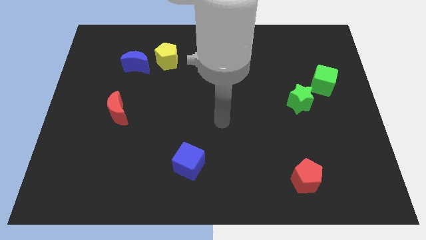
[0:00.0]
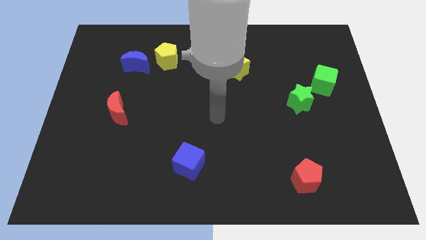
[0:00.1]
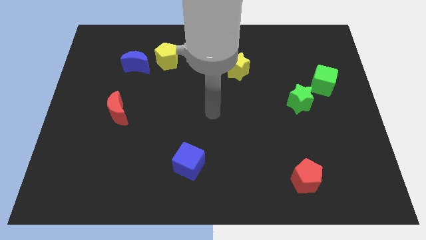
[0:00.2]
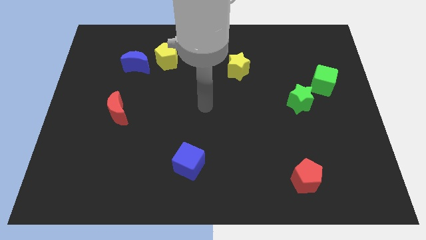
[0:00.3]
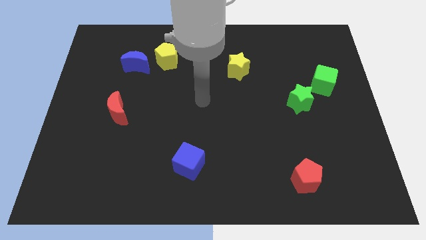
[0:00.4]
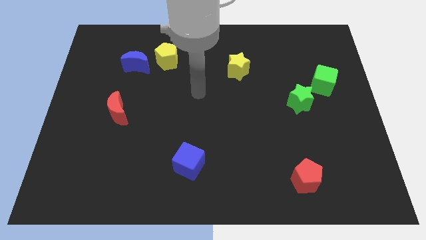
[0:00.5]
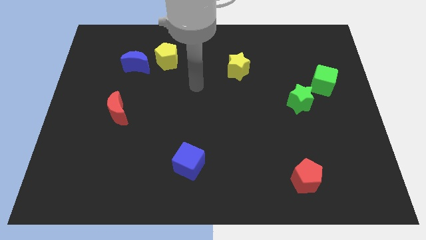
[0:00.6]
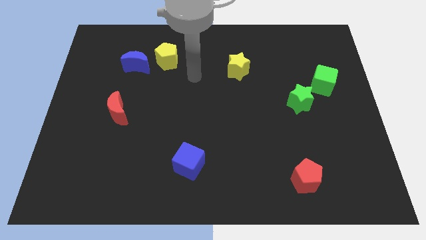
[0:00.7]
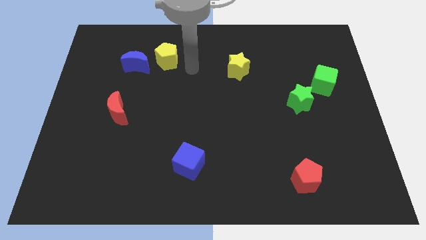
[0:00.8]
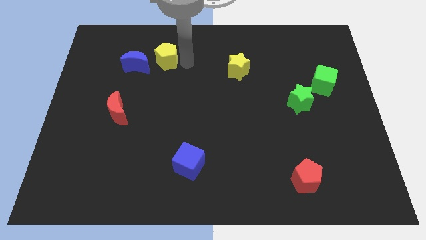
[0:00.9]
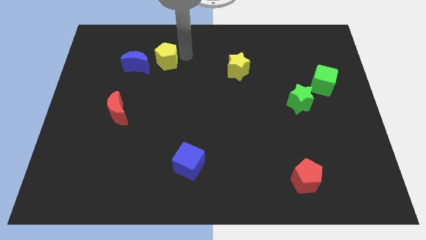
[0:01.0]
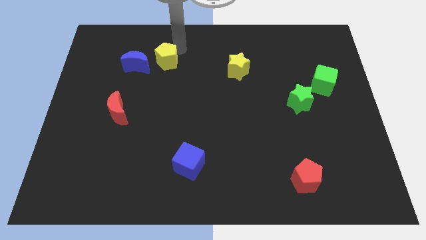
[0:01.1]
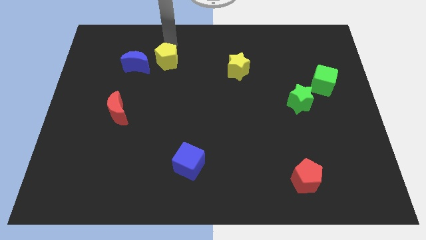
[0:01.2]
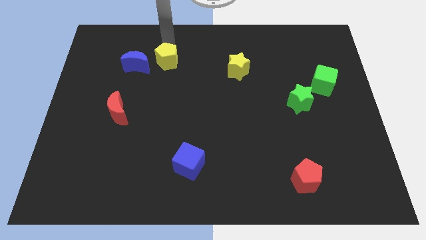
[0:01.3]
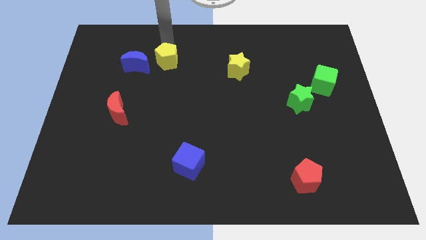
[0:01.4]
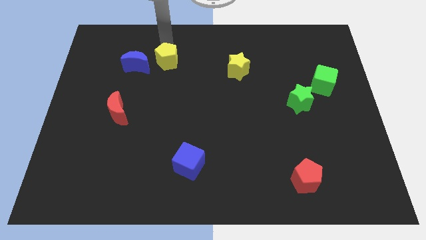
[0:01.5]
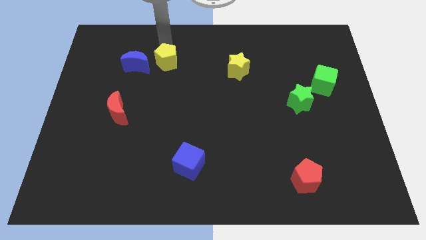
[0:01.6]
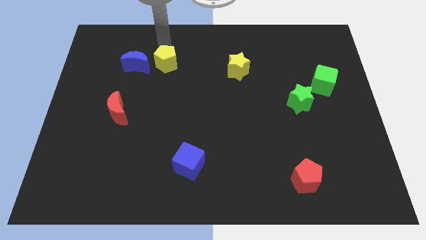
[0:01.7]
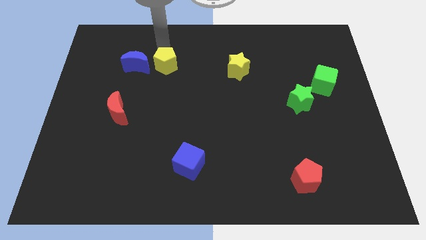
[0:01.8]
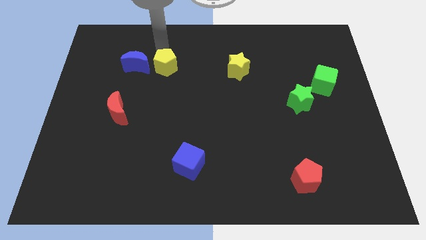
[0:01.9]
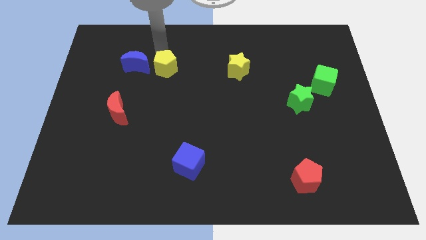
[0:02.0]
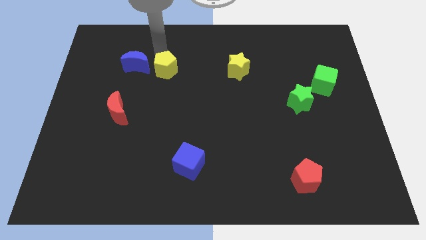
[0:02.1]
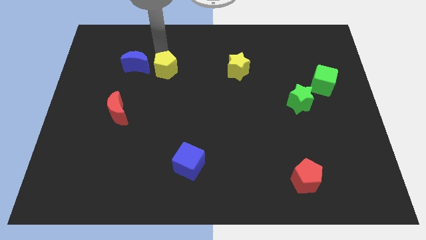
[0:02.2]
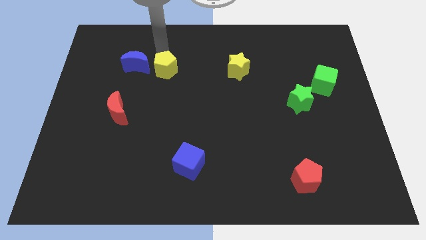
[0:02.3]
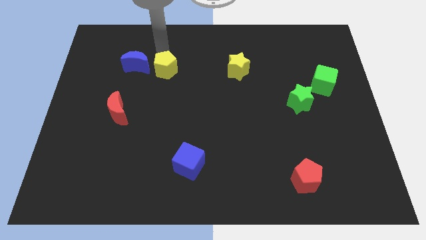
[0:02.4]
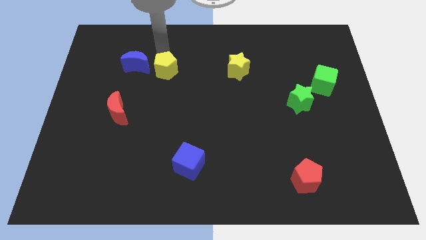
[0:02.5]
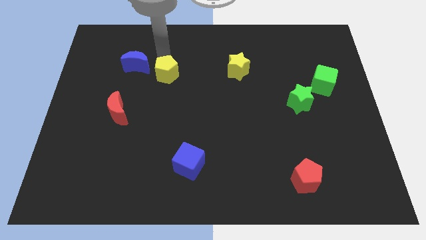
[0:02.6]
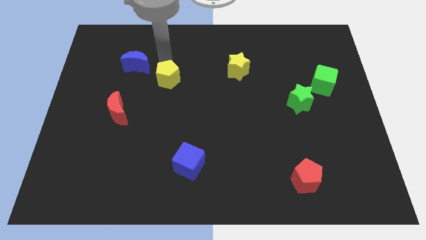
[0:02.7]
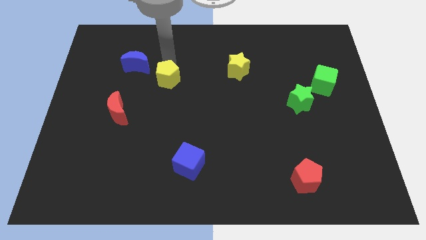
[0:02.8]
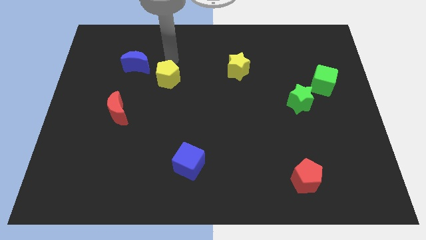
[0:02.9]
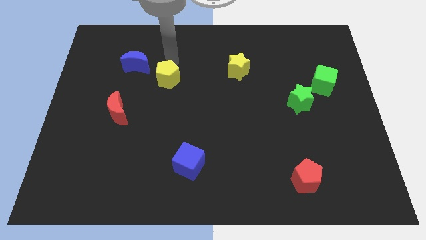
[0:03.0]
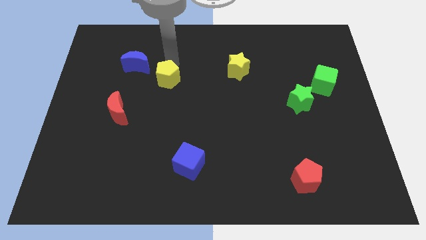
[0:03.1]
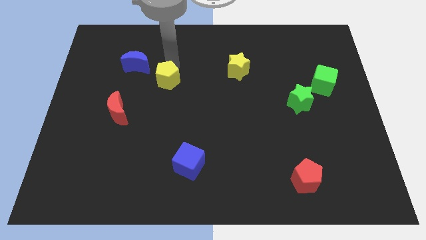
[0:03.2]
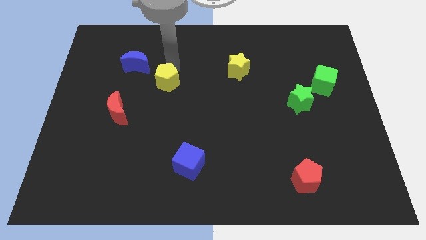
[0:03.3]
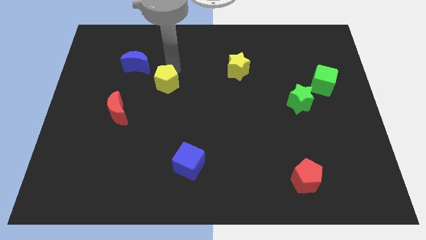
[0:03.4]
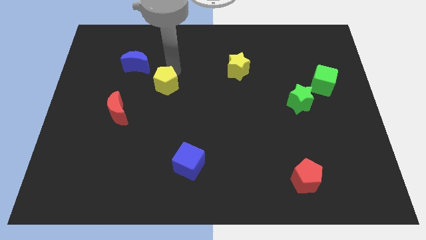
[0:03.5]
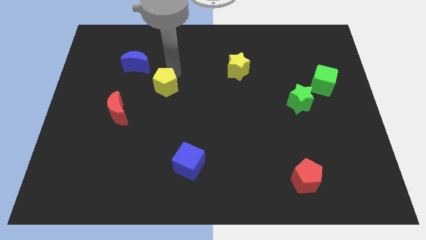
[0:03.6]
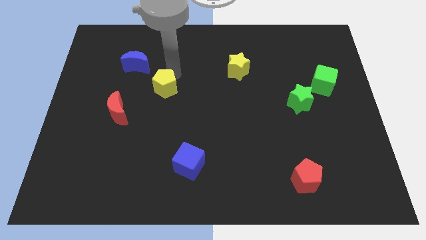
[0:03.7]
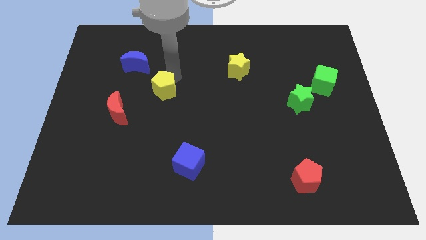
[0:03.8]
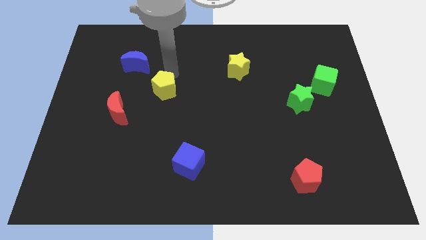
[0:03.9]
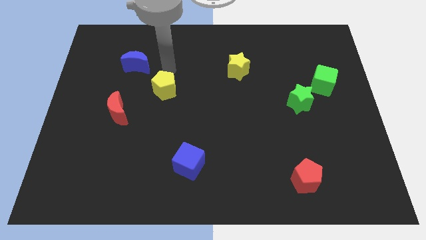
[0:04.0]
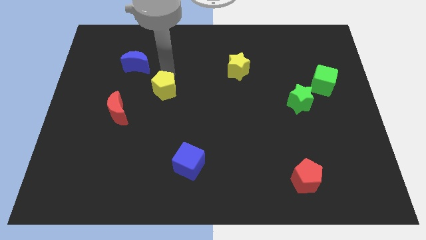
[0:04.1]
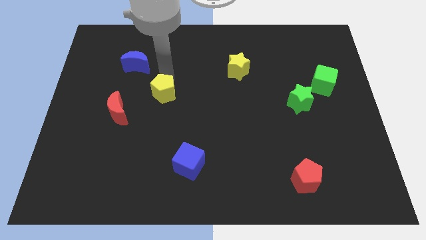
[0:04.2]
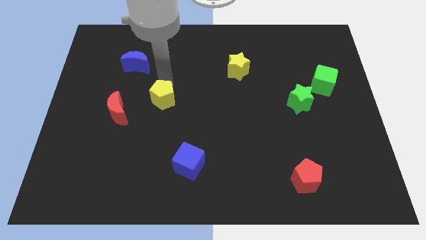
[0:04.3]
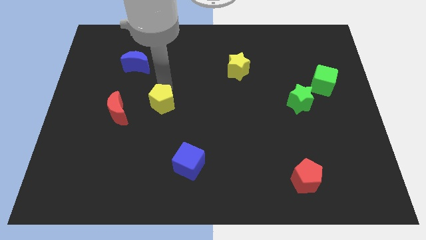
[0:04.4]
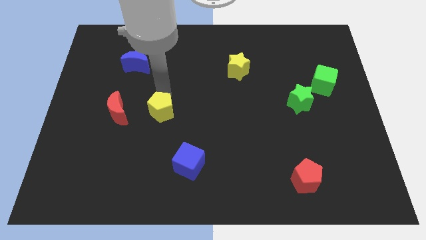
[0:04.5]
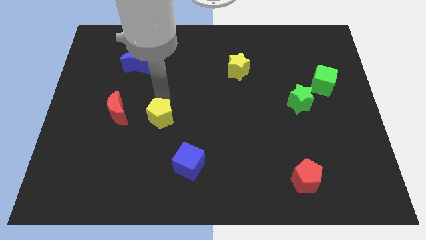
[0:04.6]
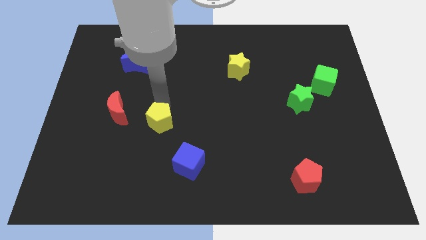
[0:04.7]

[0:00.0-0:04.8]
move the yellow pentagon downwards

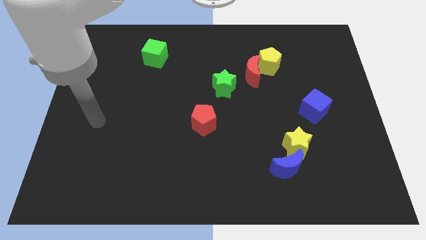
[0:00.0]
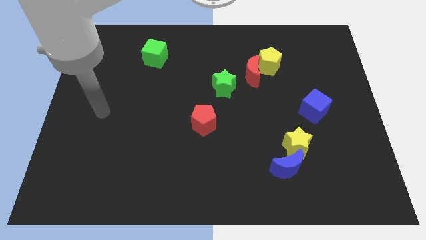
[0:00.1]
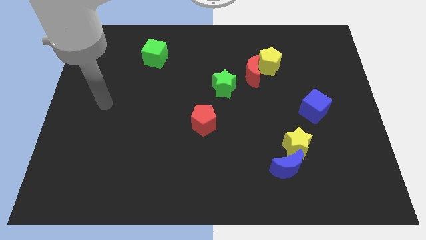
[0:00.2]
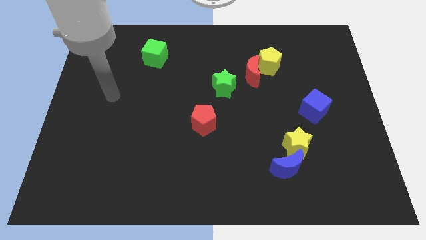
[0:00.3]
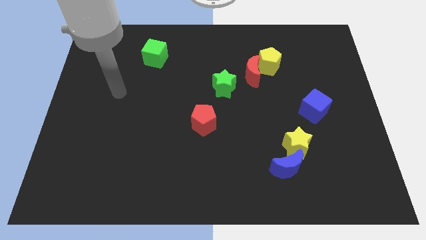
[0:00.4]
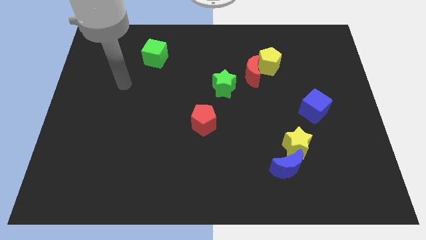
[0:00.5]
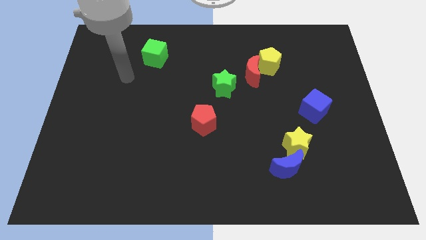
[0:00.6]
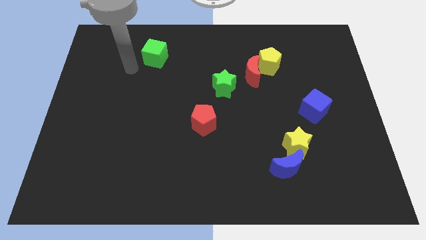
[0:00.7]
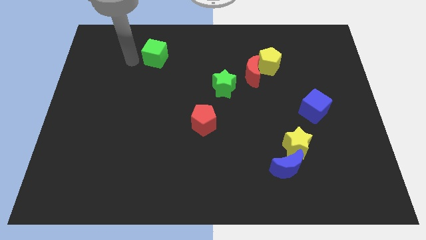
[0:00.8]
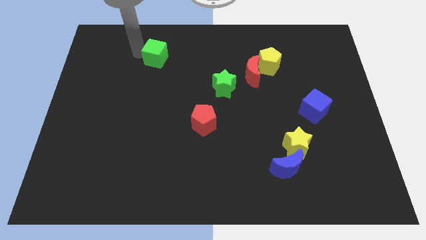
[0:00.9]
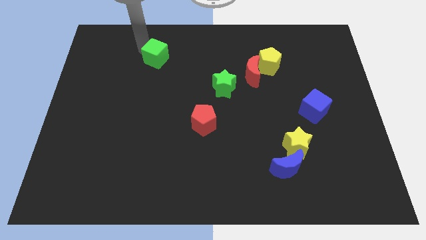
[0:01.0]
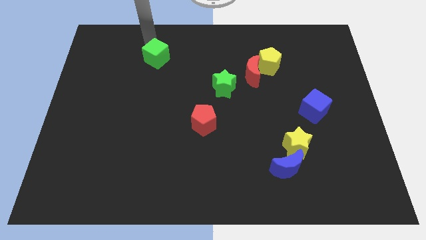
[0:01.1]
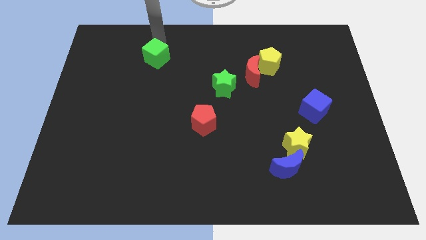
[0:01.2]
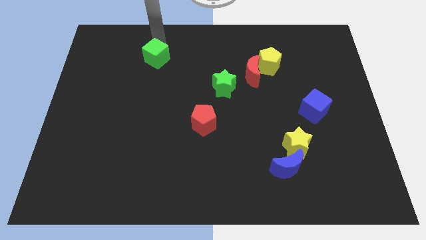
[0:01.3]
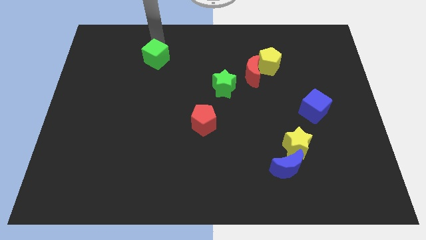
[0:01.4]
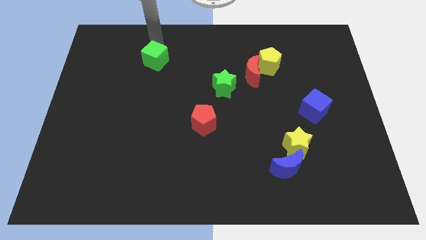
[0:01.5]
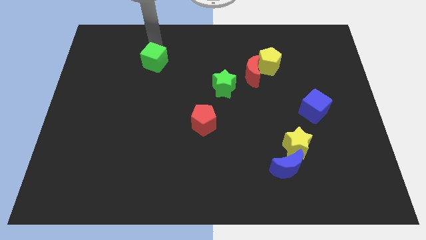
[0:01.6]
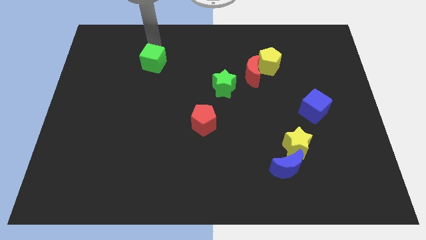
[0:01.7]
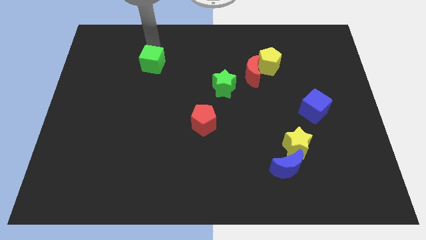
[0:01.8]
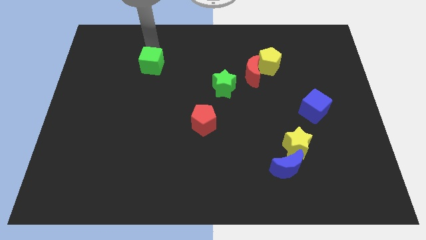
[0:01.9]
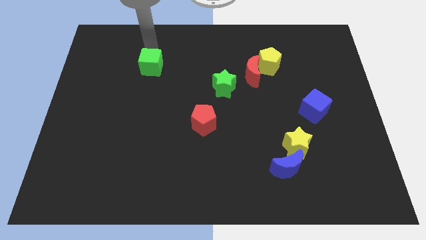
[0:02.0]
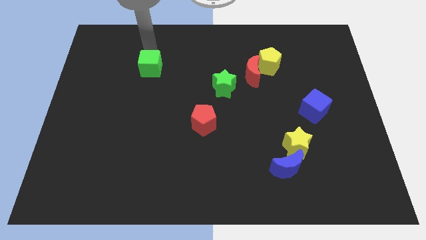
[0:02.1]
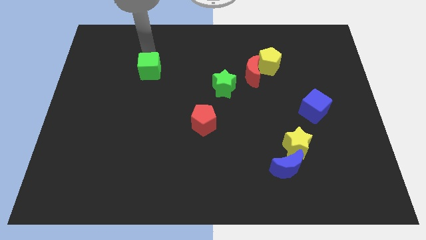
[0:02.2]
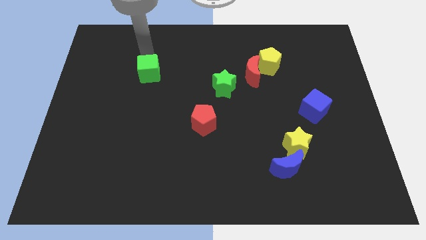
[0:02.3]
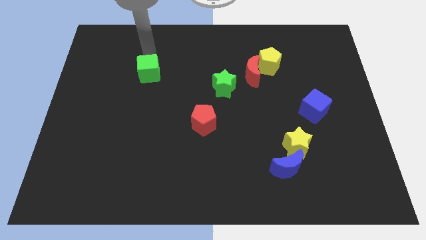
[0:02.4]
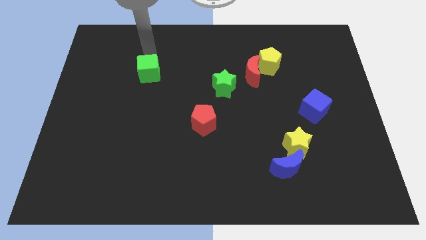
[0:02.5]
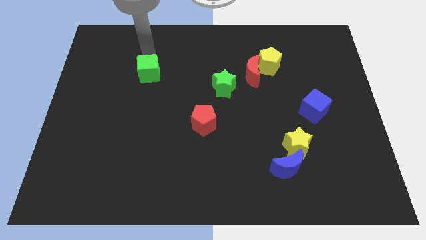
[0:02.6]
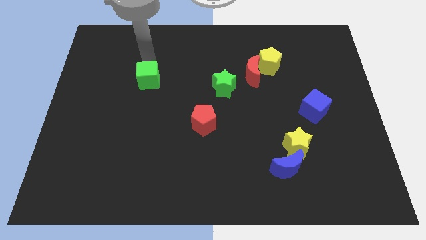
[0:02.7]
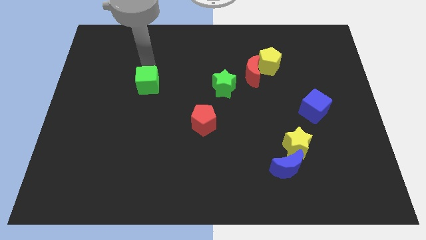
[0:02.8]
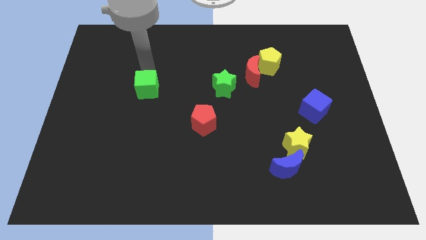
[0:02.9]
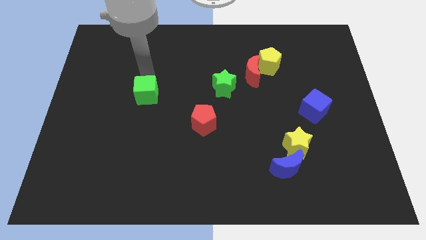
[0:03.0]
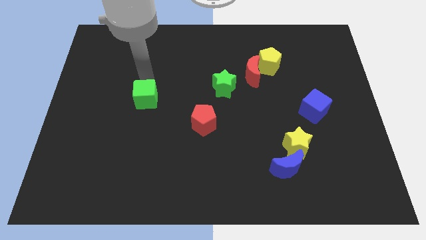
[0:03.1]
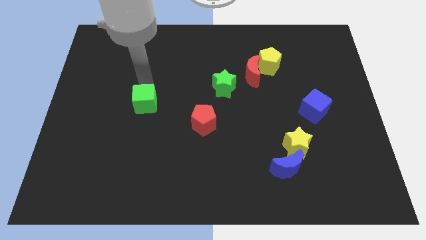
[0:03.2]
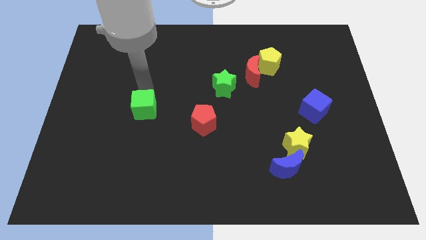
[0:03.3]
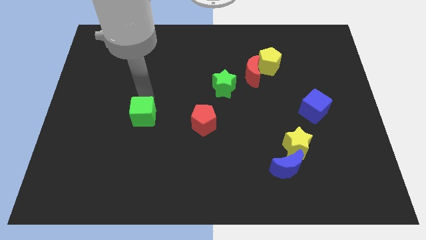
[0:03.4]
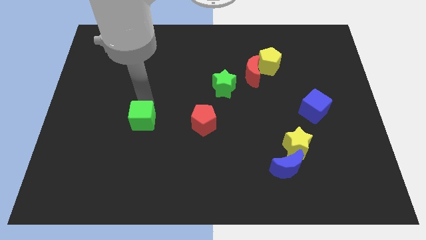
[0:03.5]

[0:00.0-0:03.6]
push the green cube downwards
